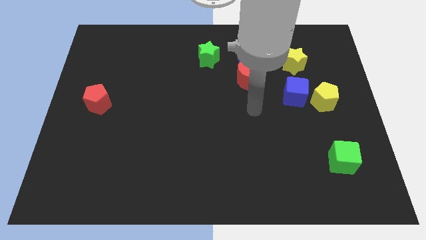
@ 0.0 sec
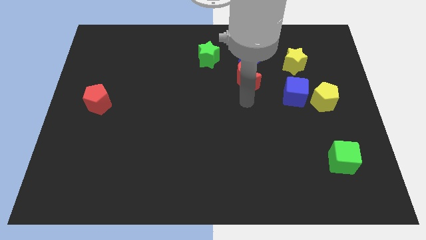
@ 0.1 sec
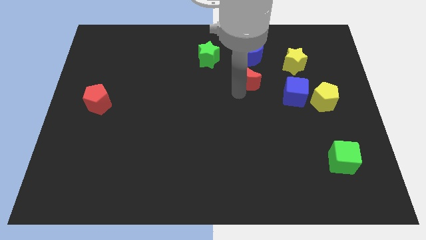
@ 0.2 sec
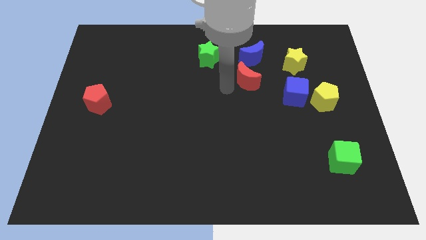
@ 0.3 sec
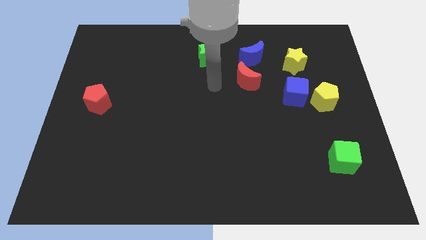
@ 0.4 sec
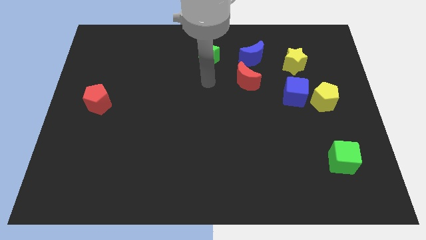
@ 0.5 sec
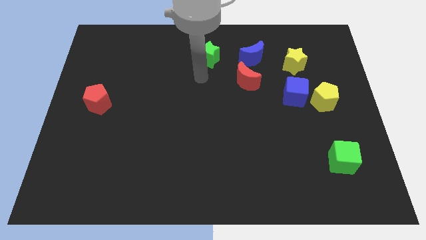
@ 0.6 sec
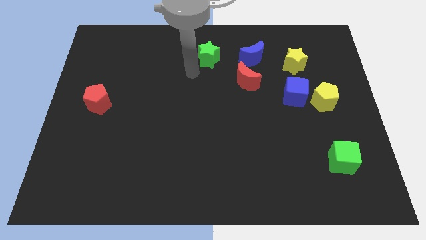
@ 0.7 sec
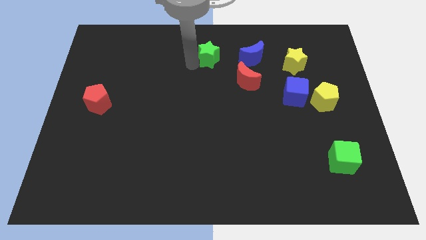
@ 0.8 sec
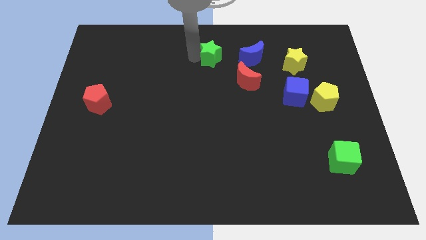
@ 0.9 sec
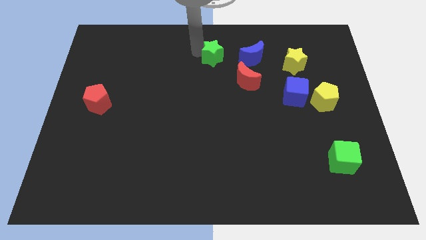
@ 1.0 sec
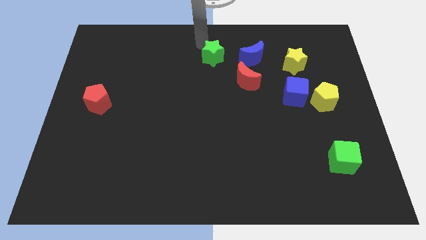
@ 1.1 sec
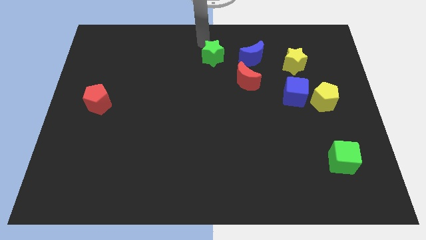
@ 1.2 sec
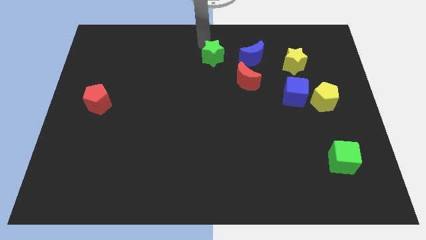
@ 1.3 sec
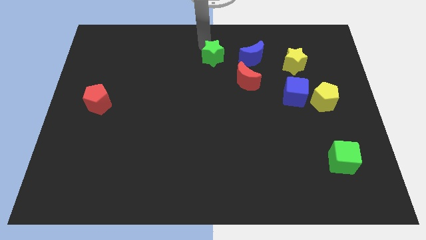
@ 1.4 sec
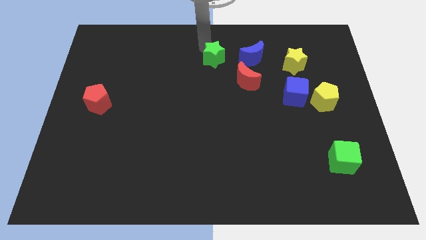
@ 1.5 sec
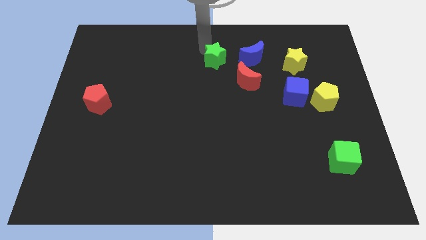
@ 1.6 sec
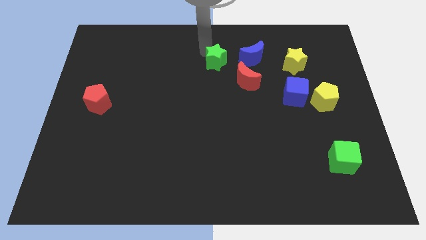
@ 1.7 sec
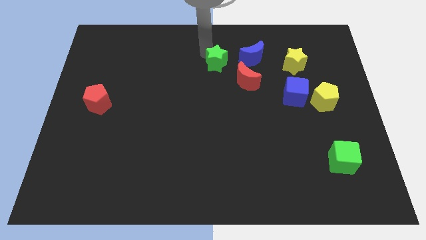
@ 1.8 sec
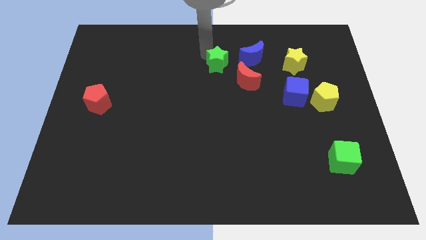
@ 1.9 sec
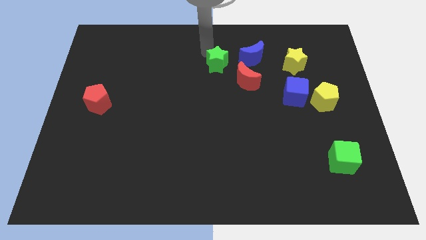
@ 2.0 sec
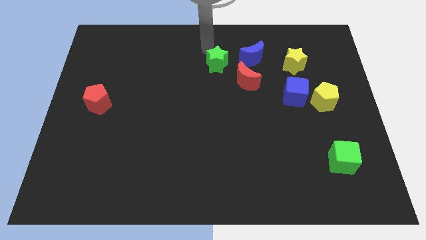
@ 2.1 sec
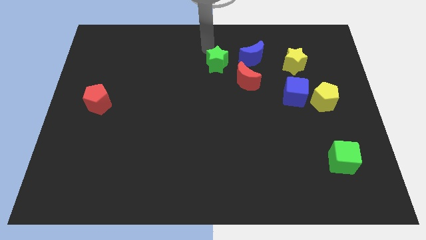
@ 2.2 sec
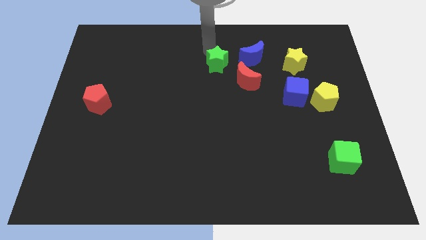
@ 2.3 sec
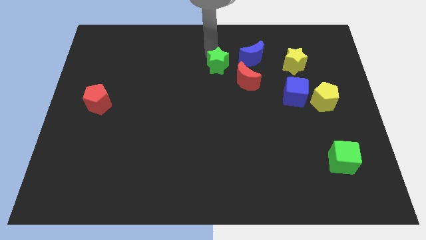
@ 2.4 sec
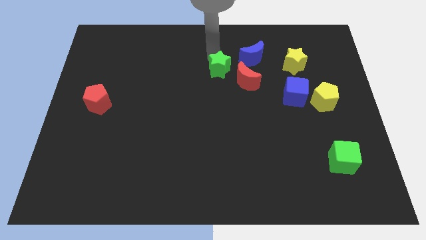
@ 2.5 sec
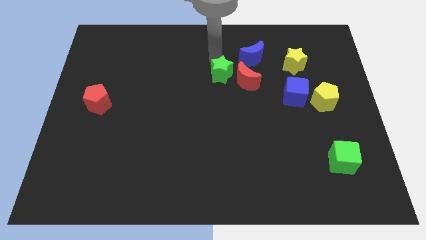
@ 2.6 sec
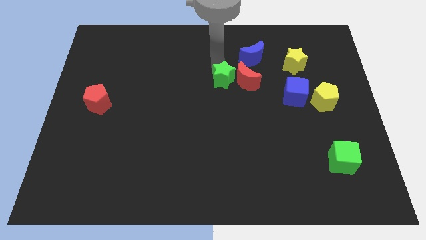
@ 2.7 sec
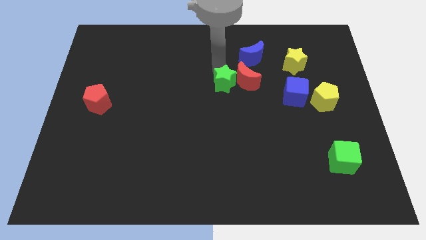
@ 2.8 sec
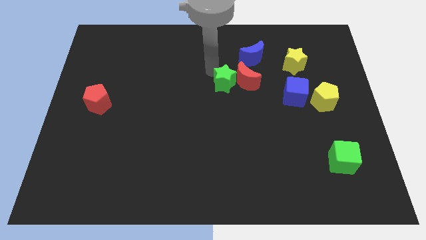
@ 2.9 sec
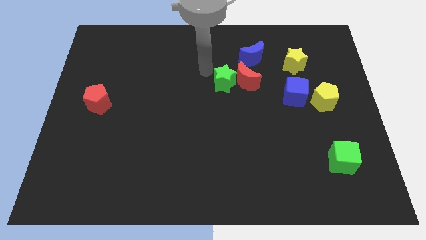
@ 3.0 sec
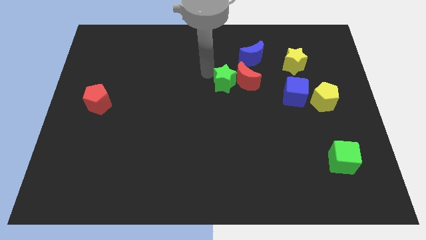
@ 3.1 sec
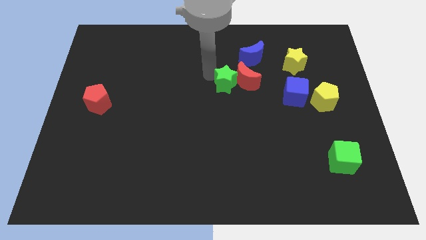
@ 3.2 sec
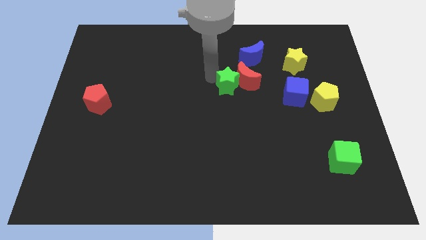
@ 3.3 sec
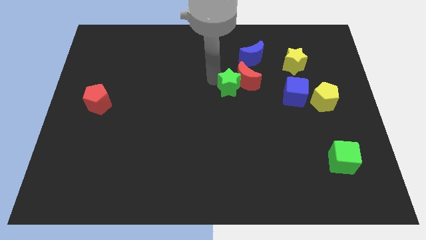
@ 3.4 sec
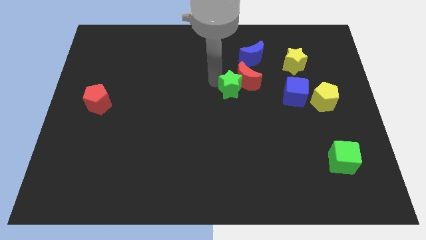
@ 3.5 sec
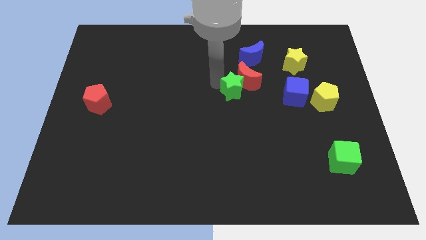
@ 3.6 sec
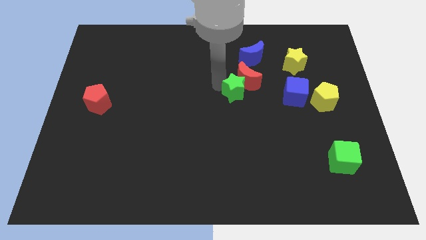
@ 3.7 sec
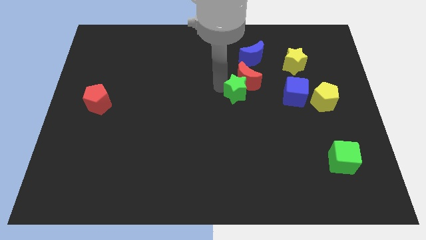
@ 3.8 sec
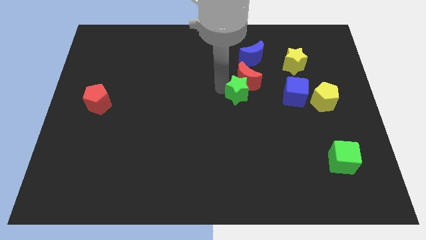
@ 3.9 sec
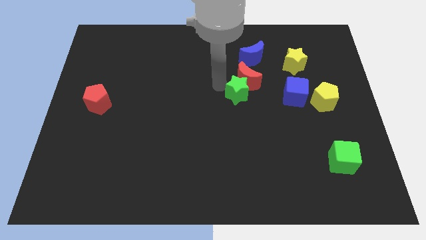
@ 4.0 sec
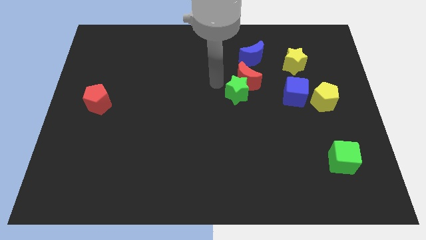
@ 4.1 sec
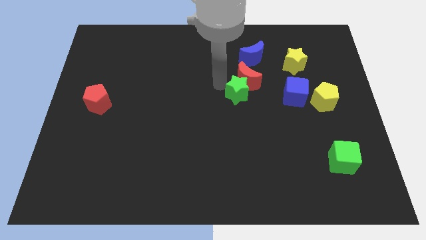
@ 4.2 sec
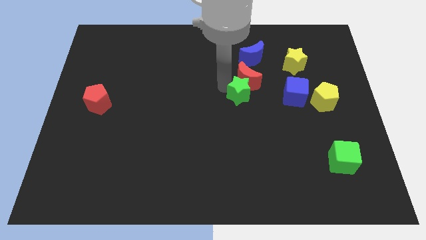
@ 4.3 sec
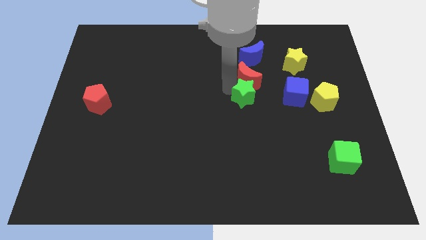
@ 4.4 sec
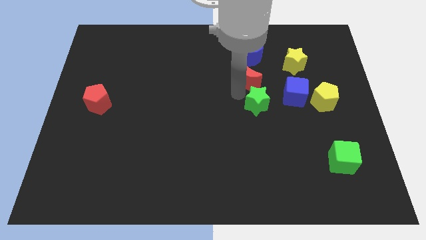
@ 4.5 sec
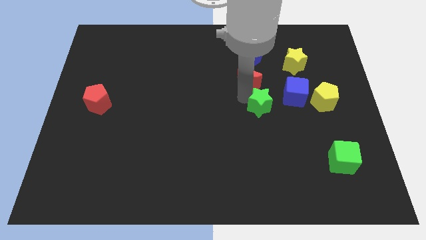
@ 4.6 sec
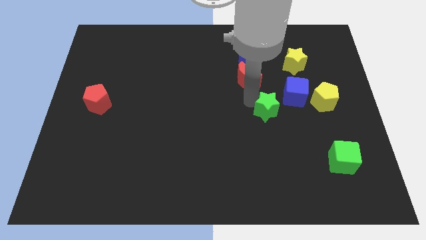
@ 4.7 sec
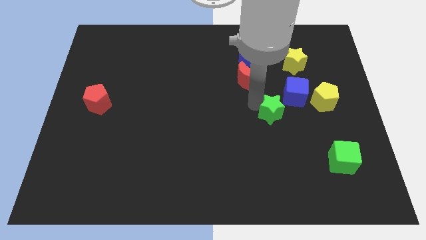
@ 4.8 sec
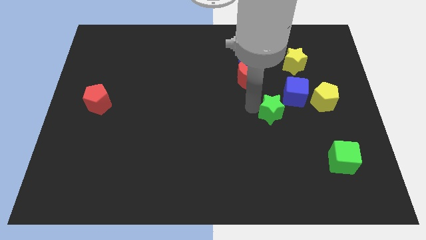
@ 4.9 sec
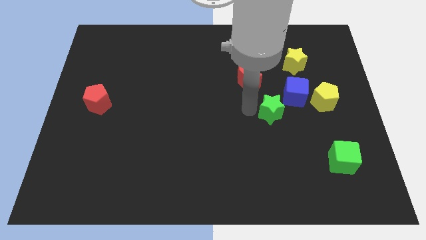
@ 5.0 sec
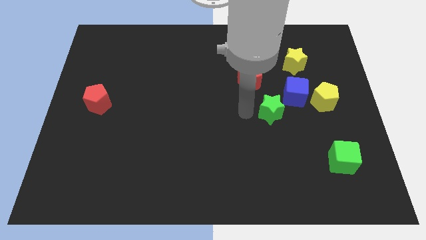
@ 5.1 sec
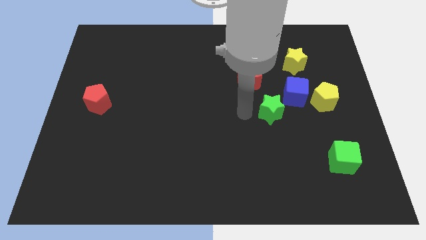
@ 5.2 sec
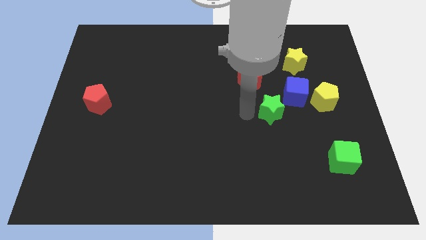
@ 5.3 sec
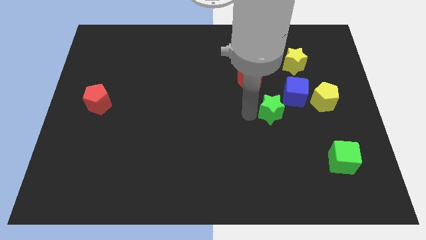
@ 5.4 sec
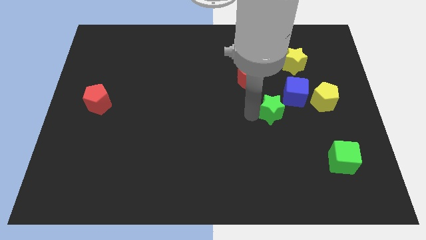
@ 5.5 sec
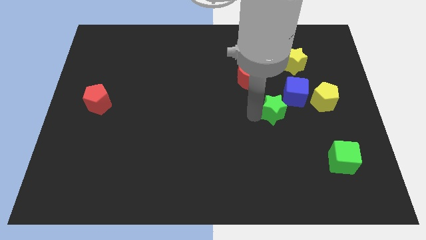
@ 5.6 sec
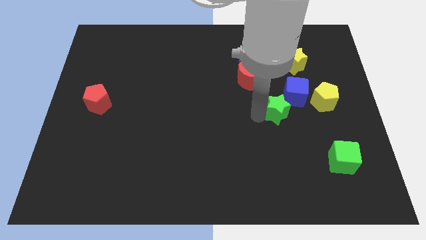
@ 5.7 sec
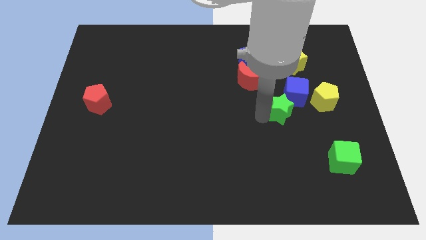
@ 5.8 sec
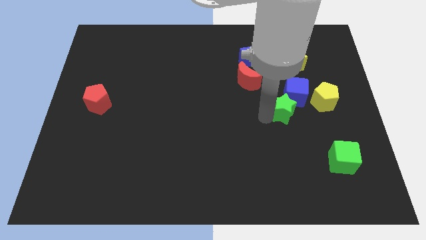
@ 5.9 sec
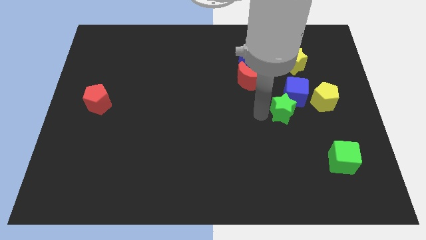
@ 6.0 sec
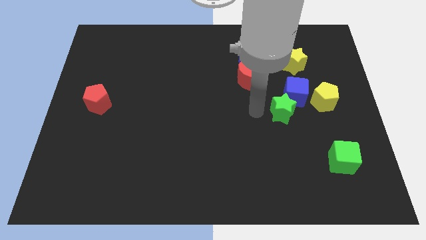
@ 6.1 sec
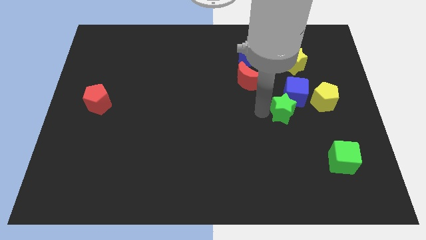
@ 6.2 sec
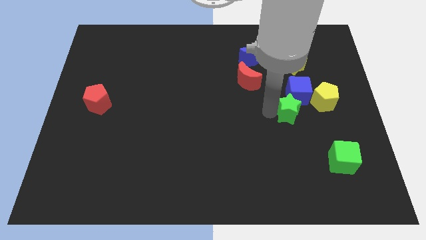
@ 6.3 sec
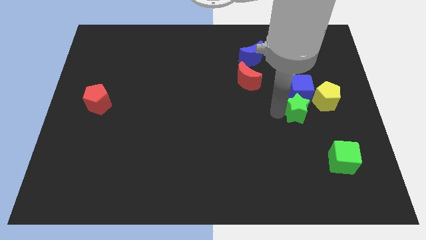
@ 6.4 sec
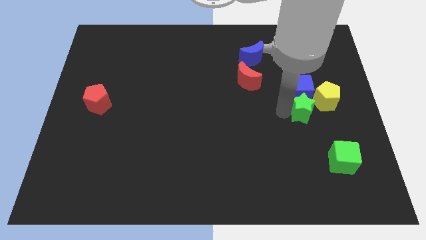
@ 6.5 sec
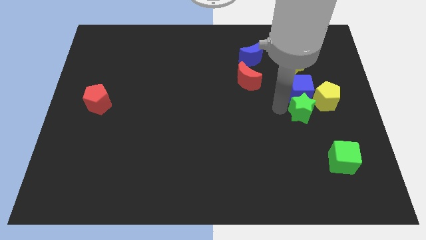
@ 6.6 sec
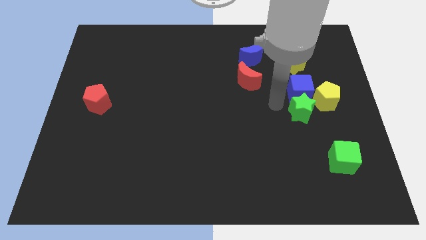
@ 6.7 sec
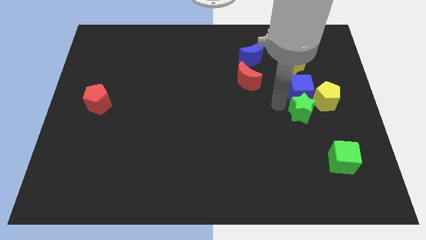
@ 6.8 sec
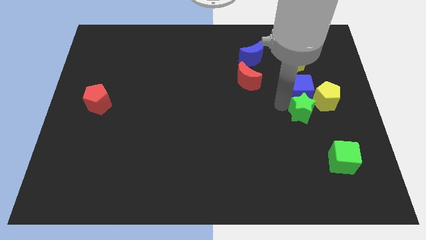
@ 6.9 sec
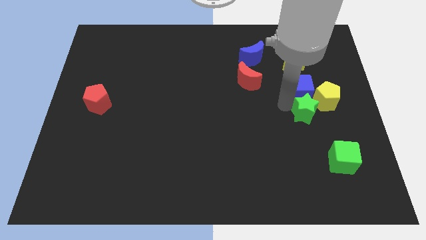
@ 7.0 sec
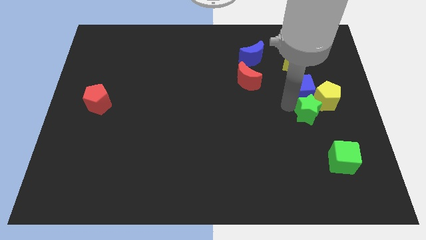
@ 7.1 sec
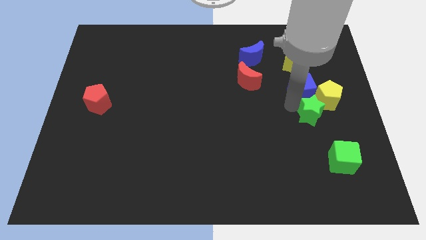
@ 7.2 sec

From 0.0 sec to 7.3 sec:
slide the green star to the top side of the green cube
